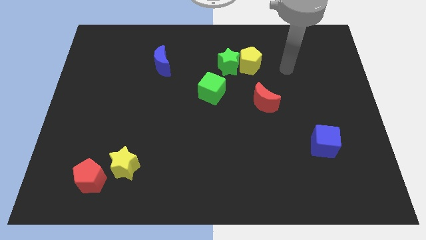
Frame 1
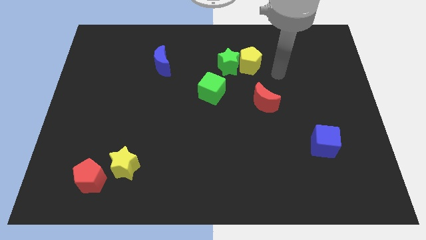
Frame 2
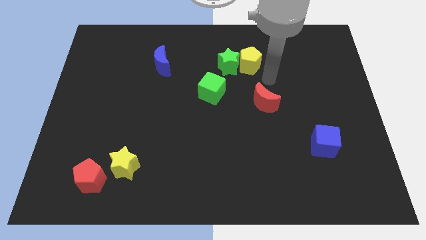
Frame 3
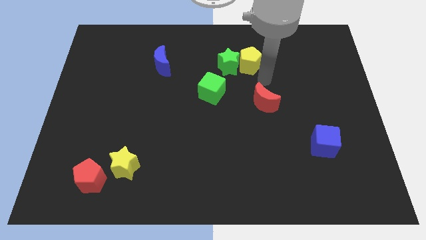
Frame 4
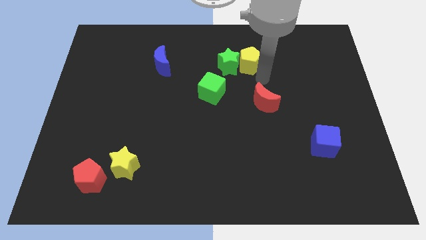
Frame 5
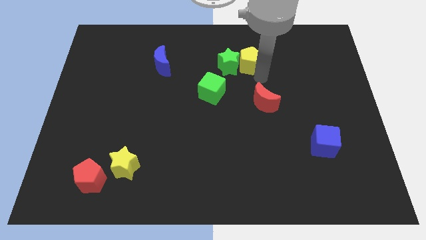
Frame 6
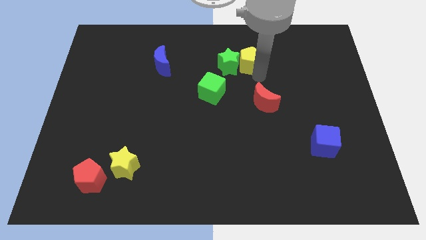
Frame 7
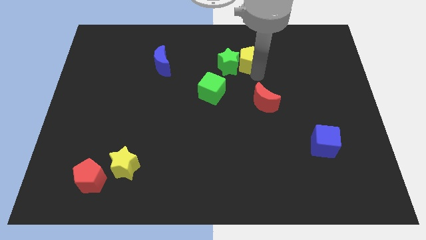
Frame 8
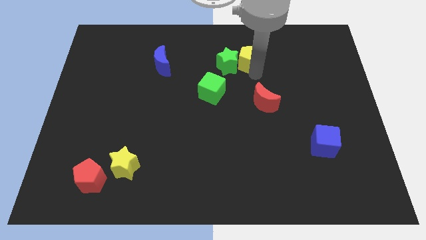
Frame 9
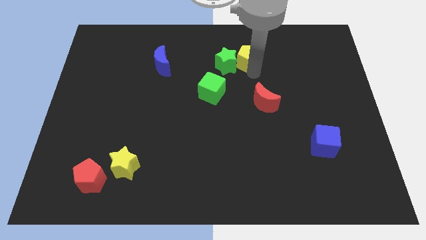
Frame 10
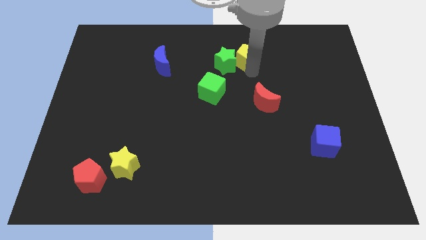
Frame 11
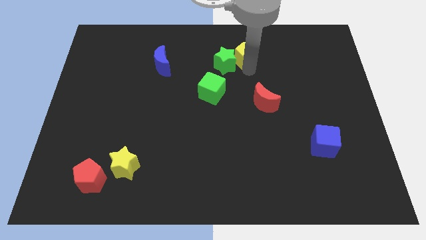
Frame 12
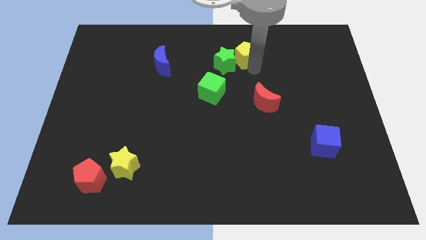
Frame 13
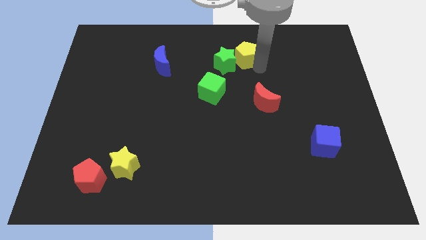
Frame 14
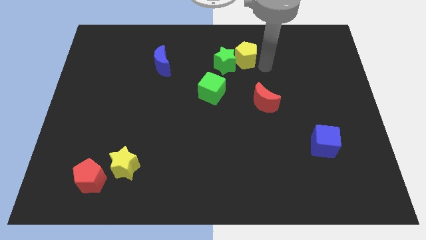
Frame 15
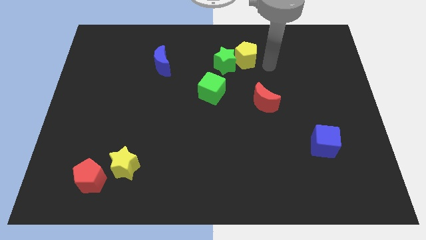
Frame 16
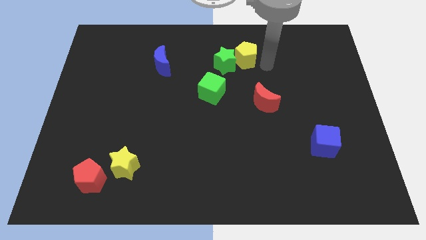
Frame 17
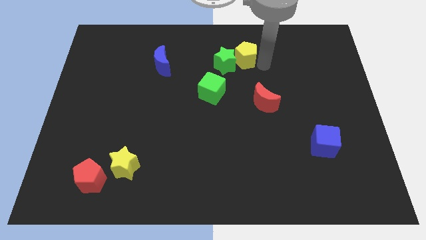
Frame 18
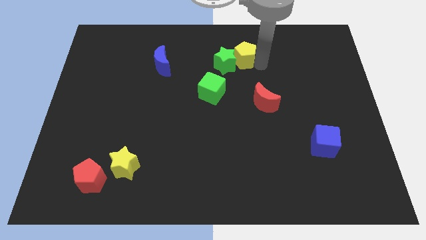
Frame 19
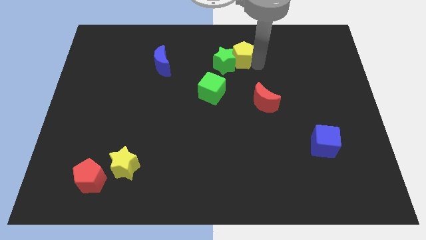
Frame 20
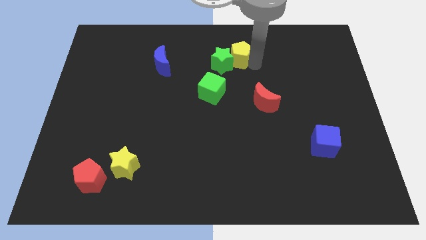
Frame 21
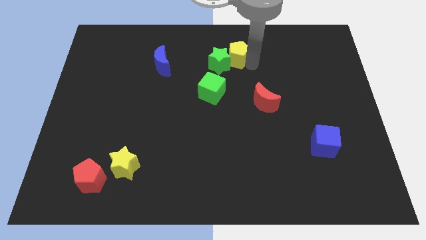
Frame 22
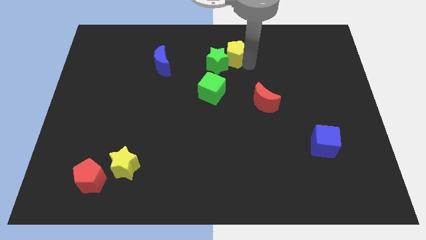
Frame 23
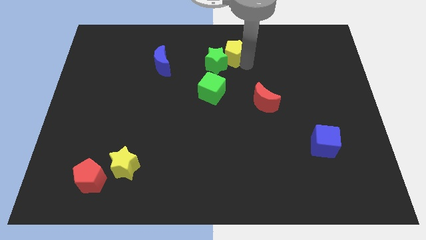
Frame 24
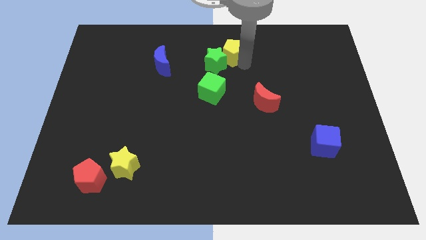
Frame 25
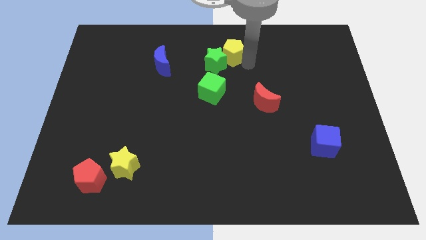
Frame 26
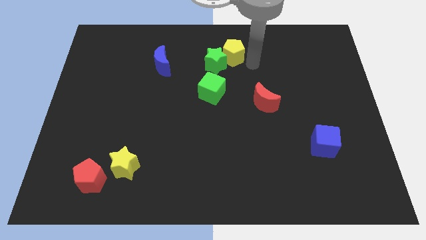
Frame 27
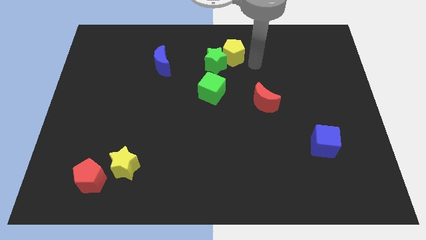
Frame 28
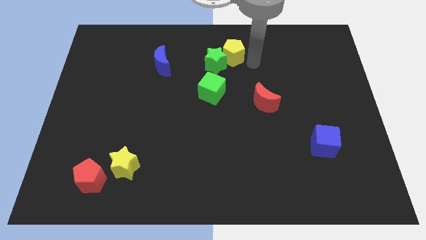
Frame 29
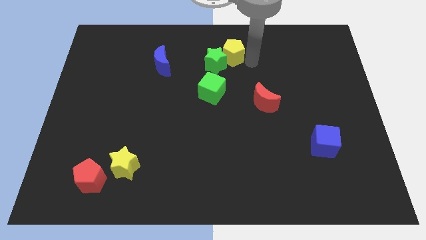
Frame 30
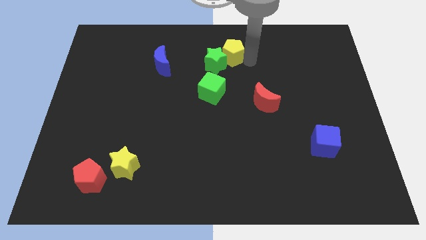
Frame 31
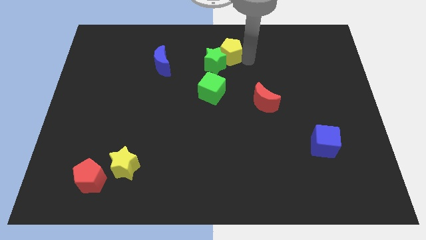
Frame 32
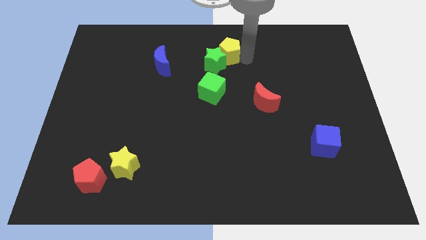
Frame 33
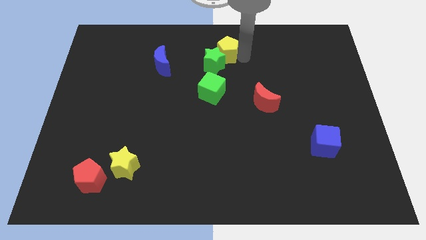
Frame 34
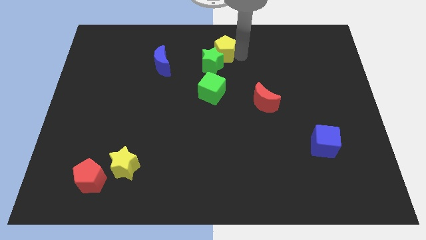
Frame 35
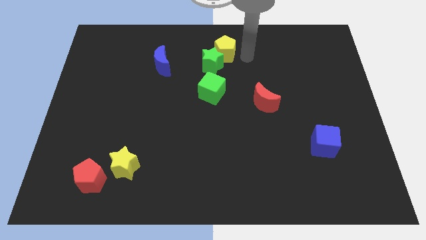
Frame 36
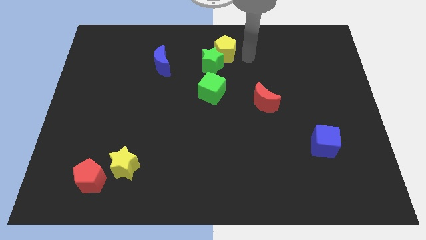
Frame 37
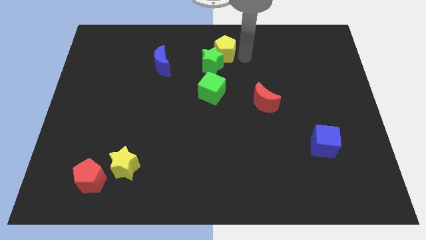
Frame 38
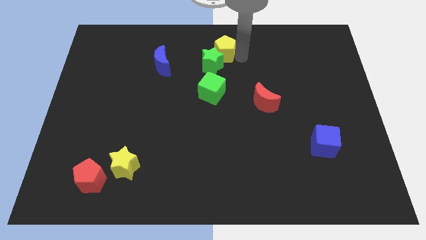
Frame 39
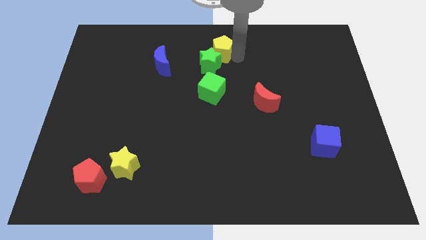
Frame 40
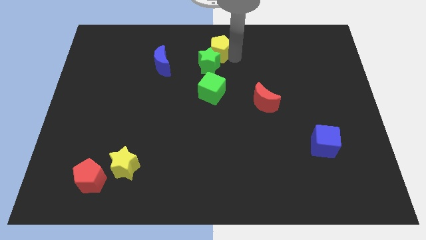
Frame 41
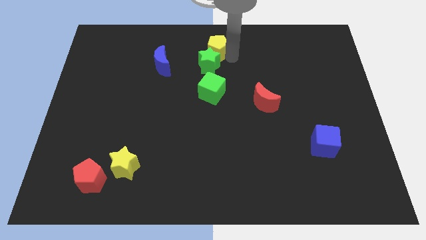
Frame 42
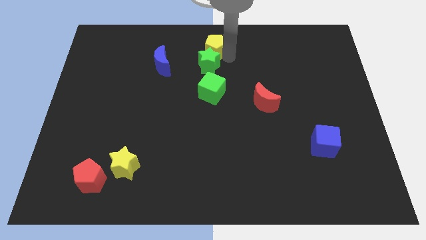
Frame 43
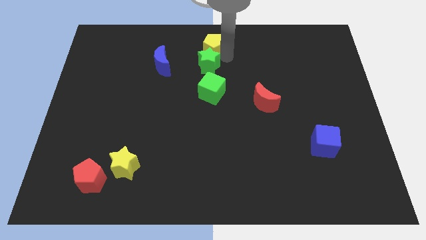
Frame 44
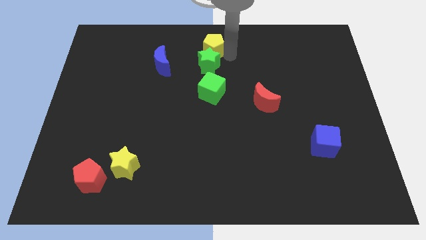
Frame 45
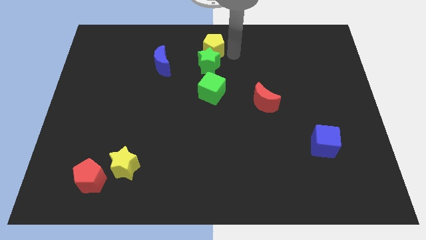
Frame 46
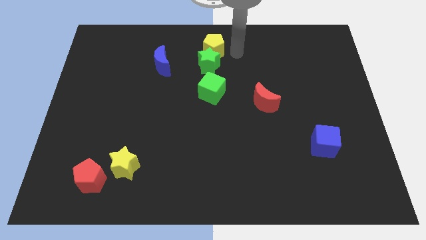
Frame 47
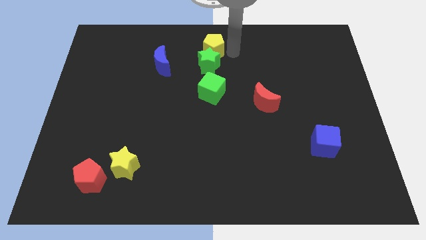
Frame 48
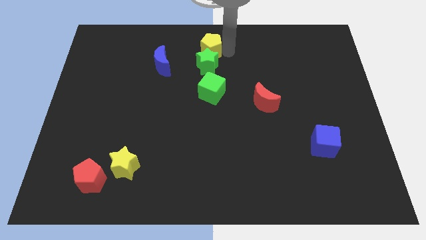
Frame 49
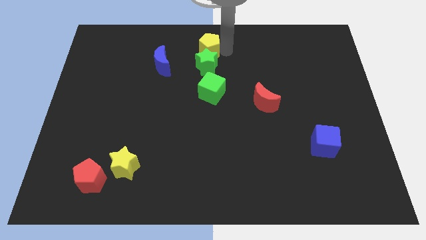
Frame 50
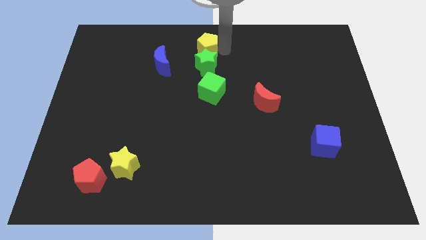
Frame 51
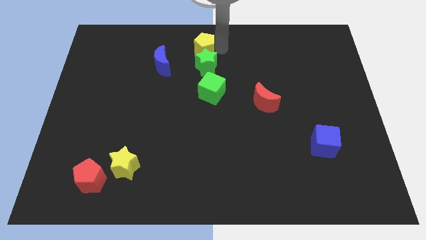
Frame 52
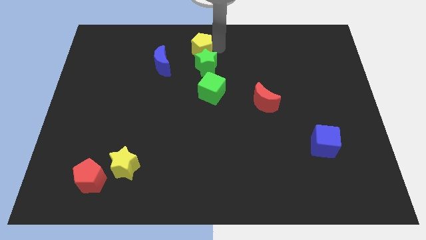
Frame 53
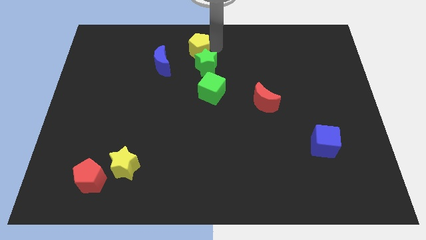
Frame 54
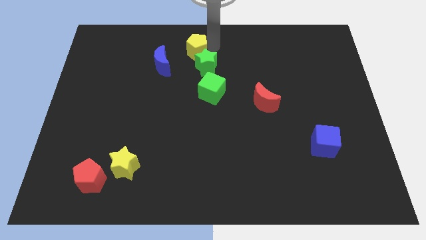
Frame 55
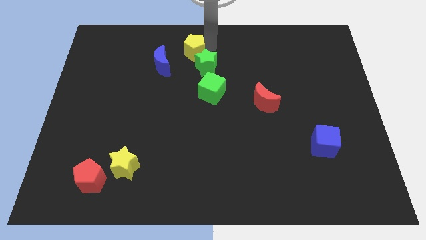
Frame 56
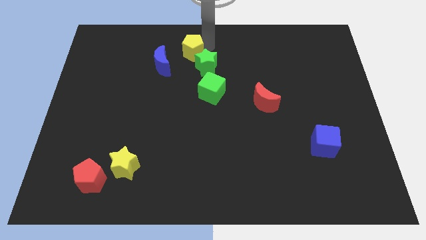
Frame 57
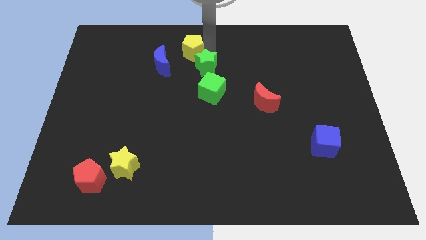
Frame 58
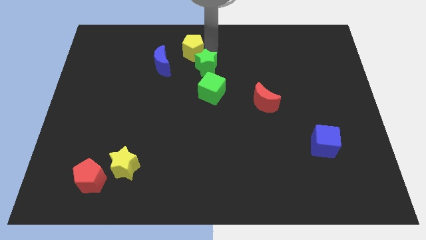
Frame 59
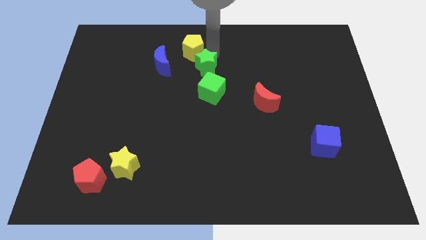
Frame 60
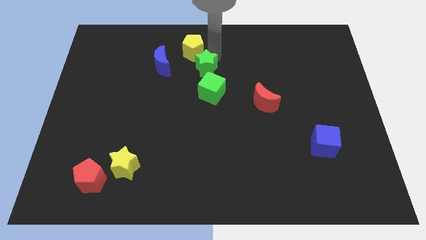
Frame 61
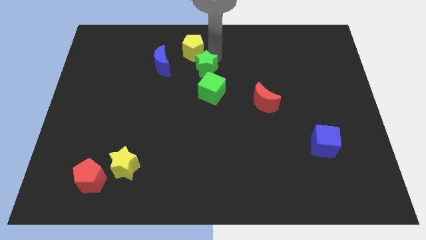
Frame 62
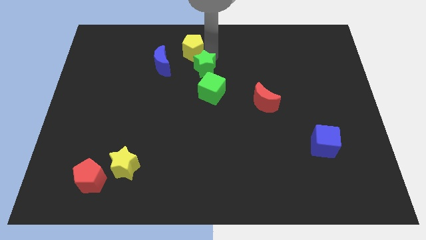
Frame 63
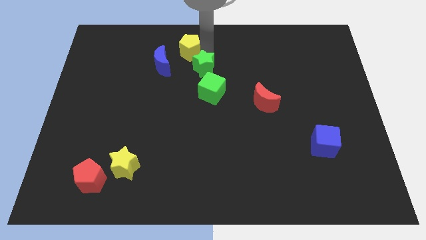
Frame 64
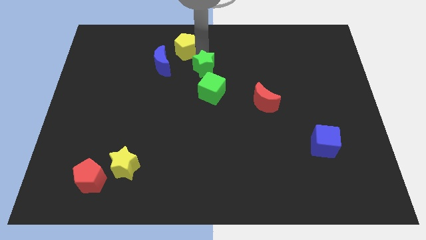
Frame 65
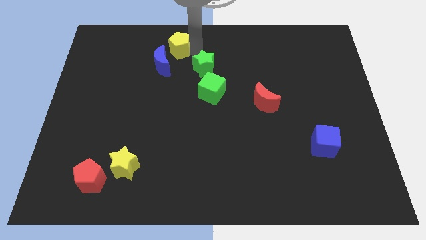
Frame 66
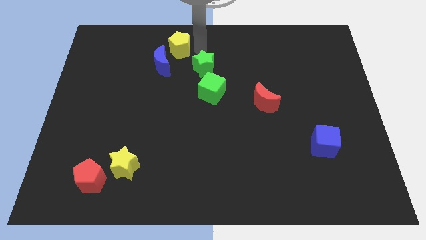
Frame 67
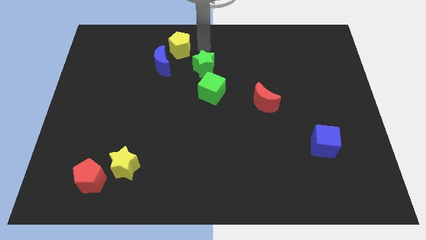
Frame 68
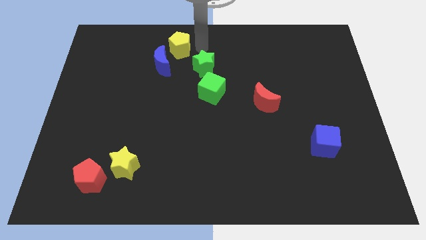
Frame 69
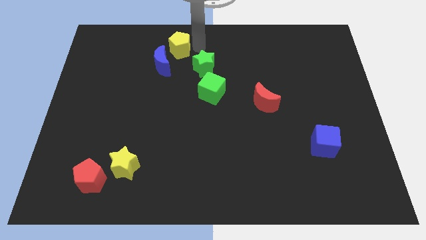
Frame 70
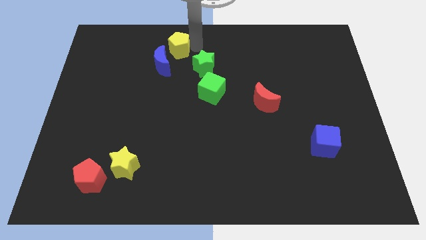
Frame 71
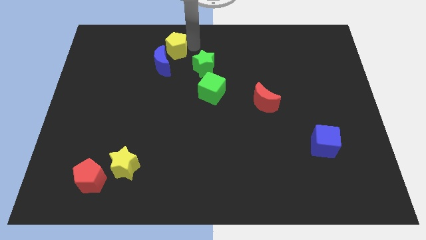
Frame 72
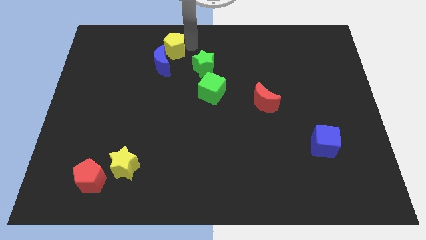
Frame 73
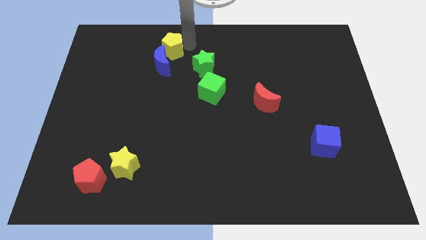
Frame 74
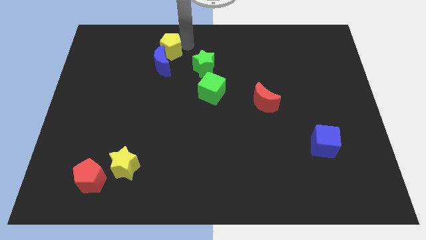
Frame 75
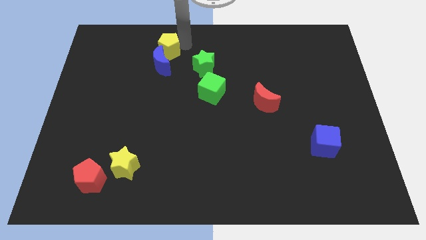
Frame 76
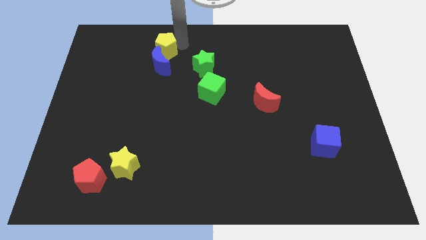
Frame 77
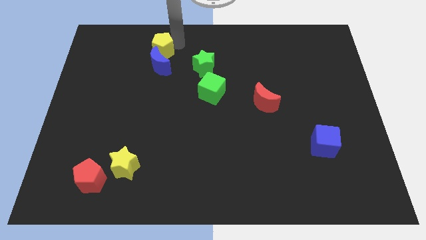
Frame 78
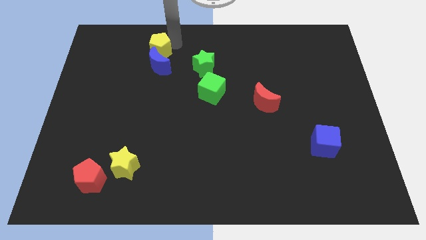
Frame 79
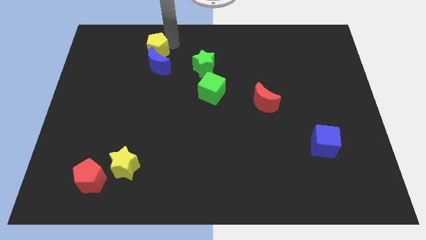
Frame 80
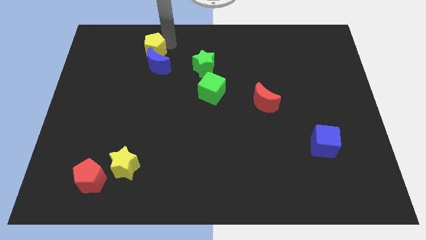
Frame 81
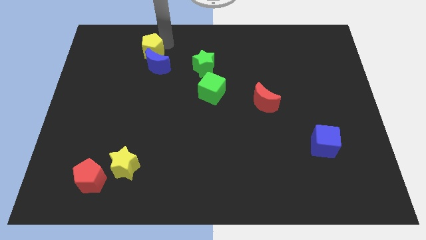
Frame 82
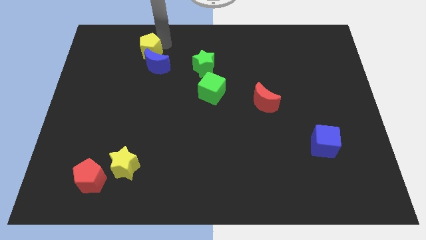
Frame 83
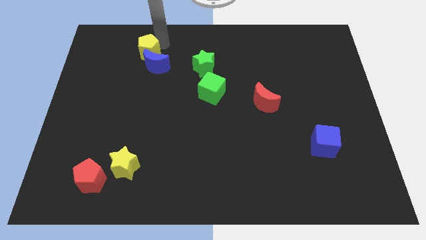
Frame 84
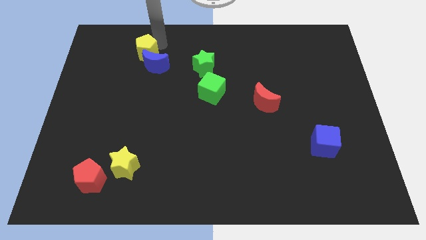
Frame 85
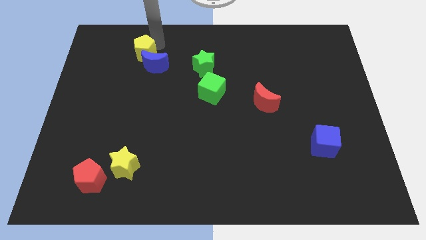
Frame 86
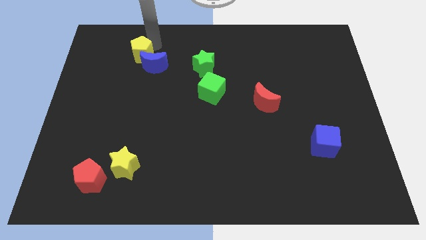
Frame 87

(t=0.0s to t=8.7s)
move the yellow pentagon left of the blue moon
